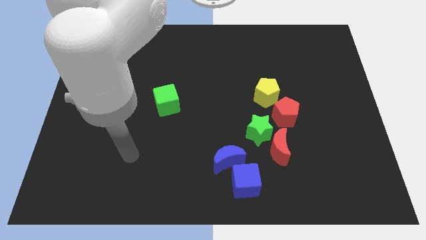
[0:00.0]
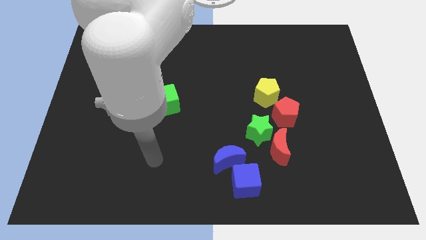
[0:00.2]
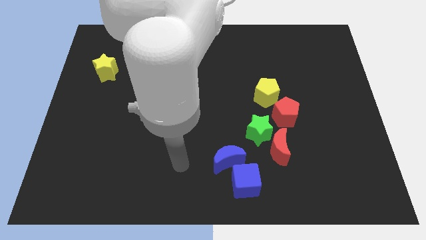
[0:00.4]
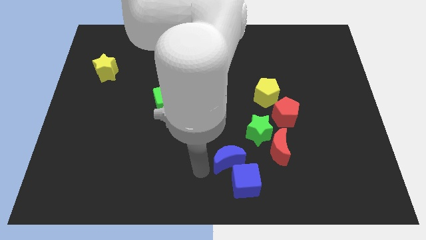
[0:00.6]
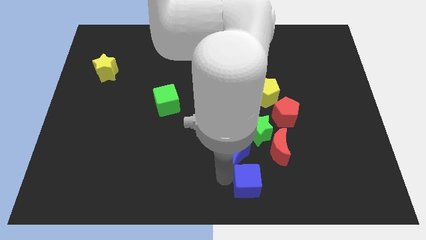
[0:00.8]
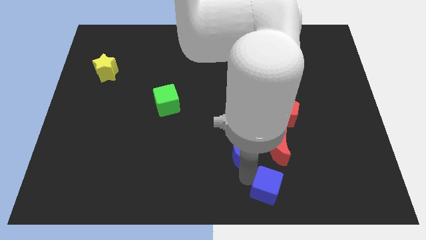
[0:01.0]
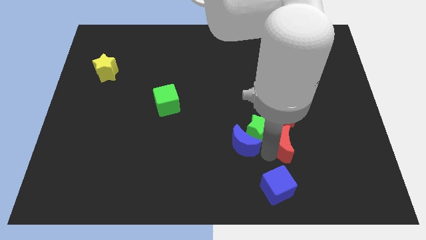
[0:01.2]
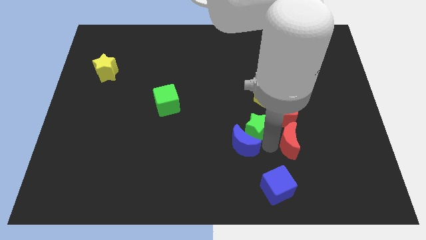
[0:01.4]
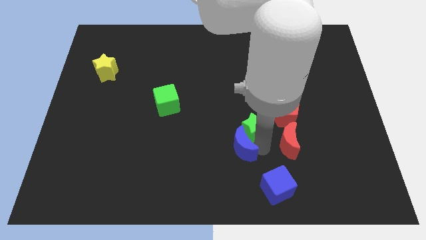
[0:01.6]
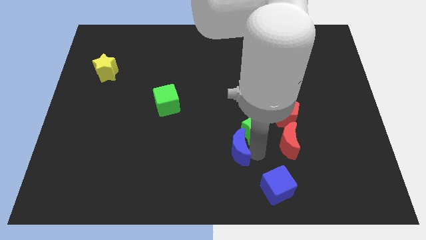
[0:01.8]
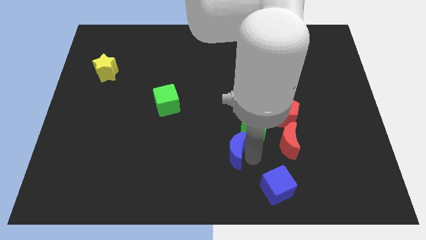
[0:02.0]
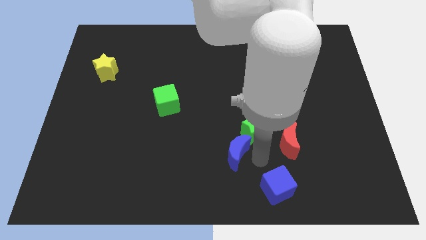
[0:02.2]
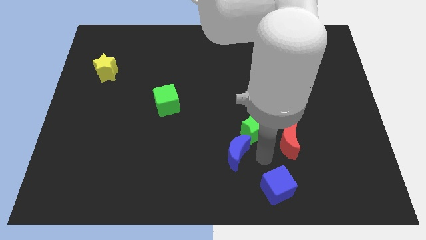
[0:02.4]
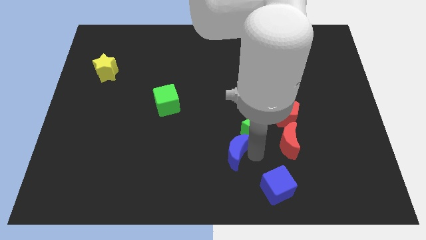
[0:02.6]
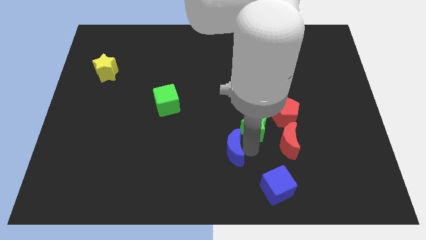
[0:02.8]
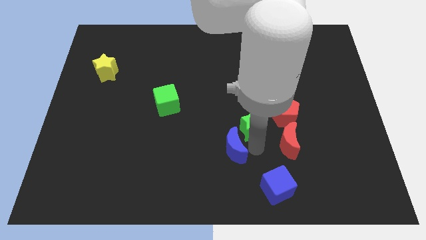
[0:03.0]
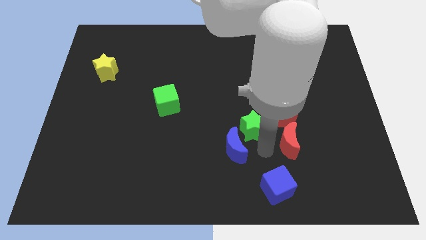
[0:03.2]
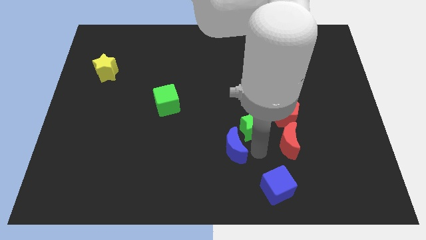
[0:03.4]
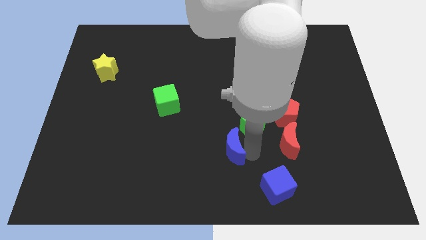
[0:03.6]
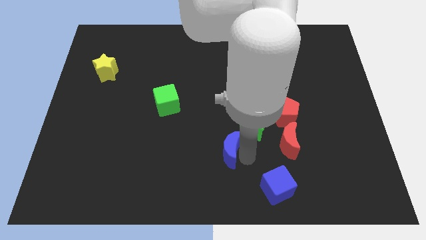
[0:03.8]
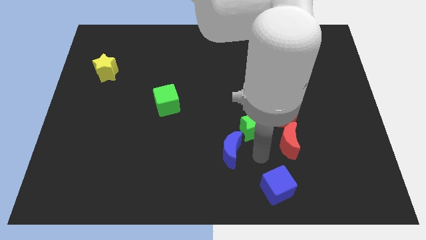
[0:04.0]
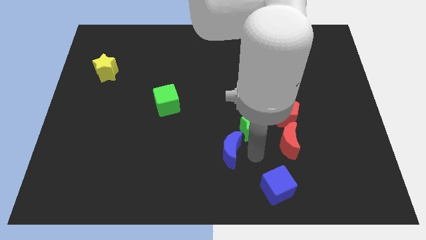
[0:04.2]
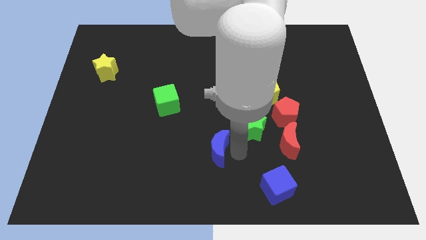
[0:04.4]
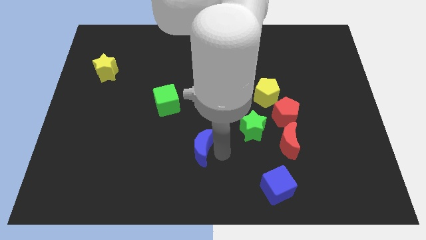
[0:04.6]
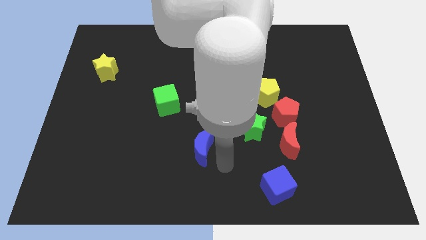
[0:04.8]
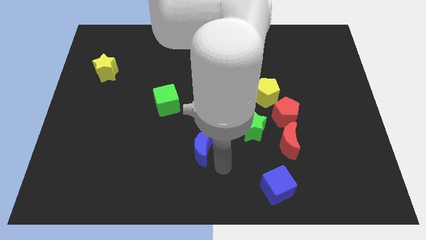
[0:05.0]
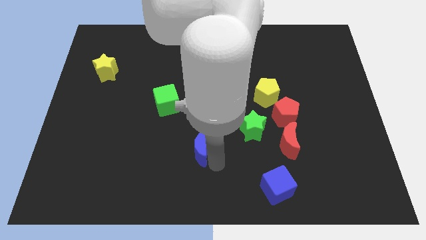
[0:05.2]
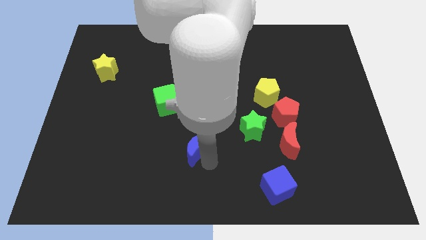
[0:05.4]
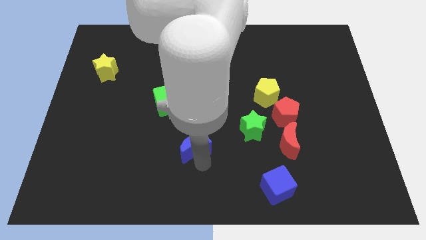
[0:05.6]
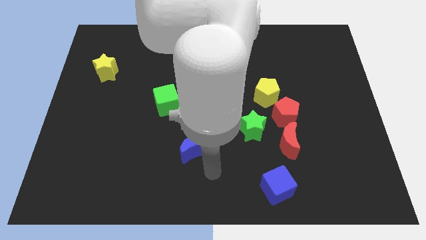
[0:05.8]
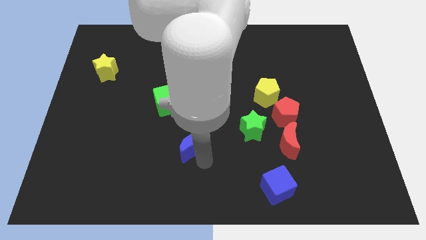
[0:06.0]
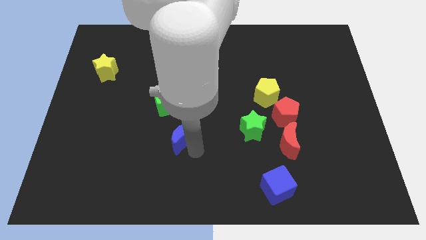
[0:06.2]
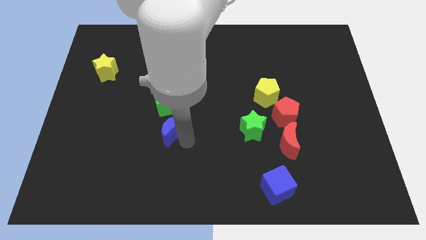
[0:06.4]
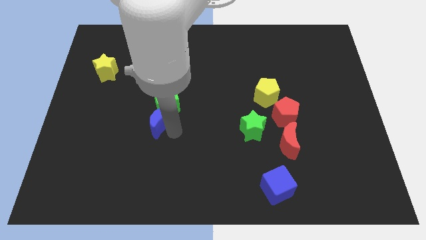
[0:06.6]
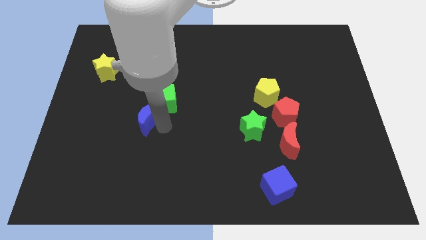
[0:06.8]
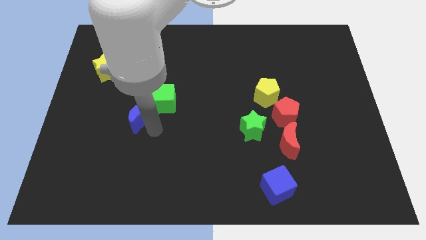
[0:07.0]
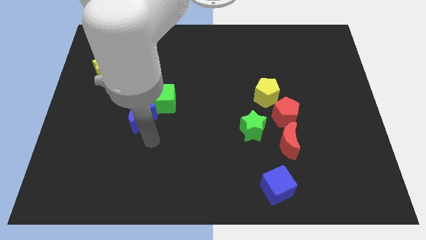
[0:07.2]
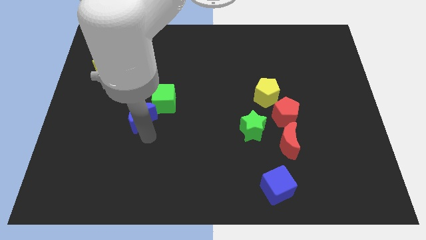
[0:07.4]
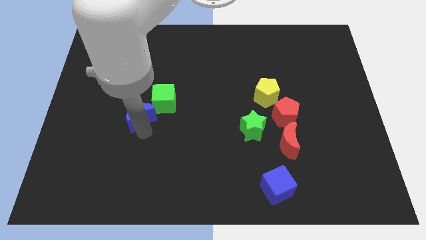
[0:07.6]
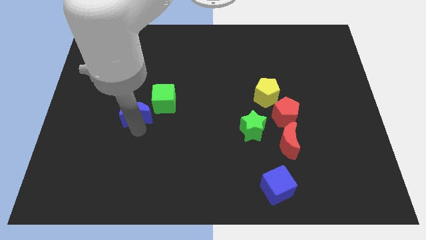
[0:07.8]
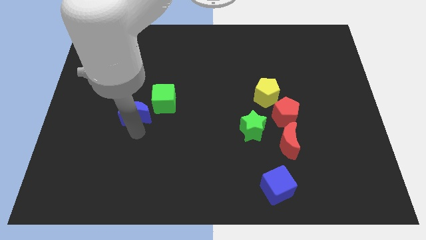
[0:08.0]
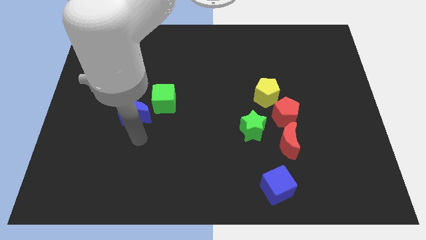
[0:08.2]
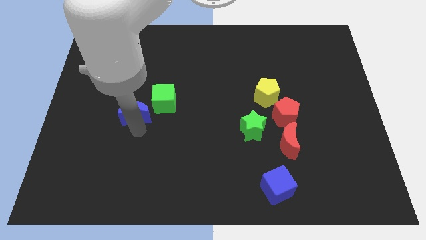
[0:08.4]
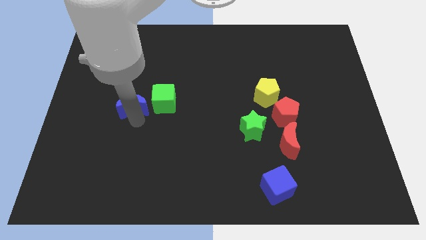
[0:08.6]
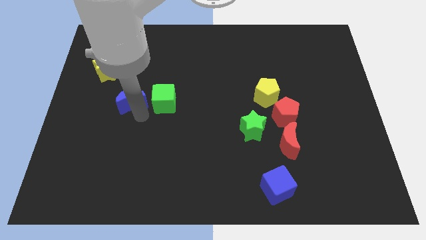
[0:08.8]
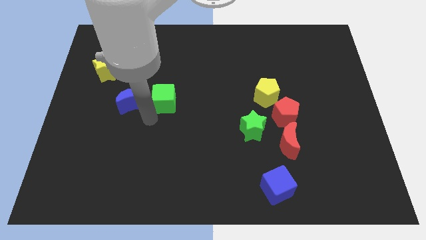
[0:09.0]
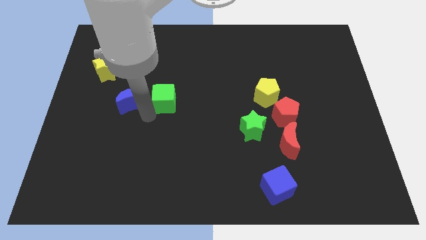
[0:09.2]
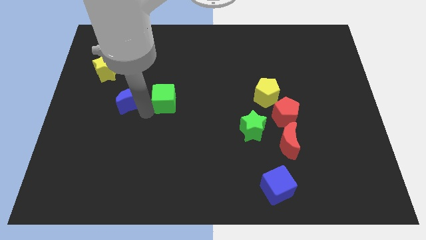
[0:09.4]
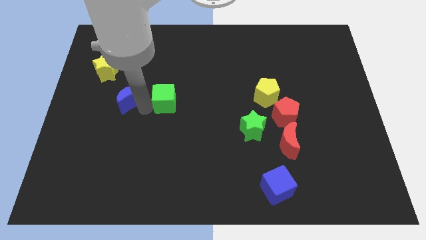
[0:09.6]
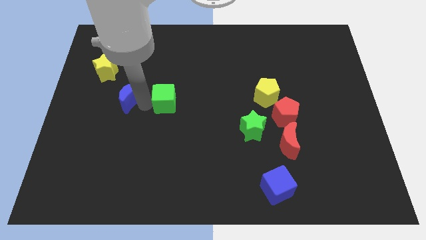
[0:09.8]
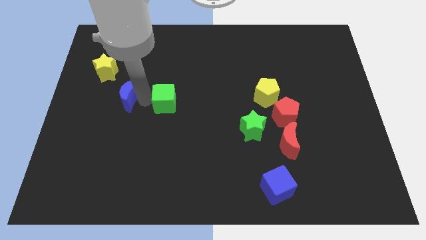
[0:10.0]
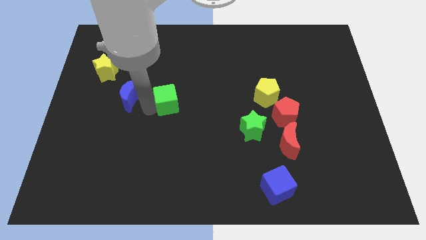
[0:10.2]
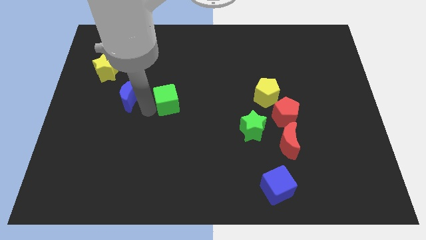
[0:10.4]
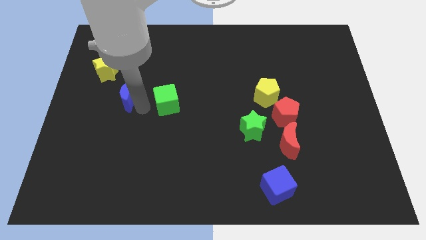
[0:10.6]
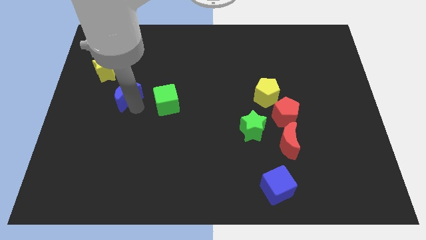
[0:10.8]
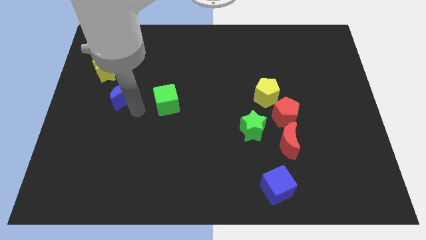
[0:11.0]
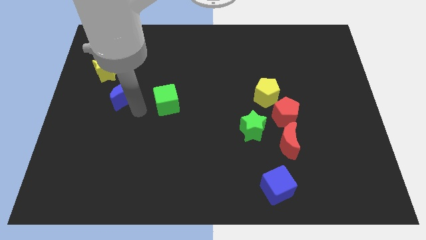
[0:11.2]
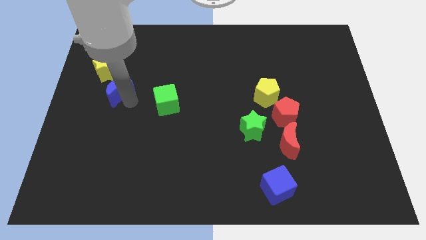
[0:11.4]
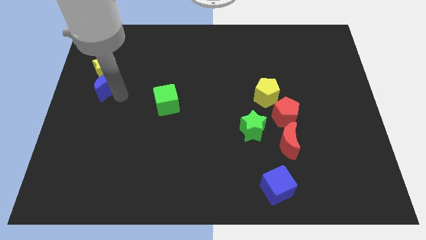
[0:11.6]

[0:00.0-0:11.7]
move the blue moon next to the yellow star

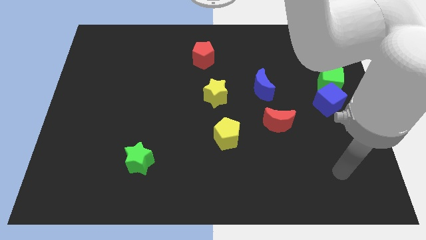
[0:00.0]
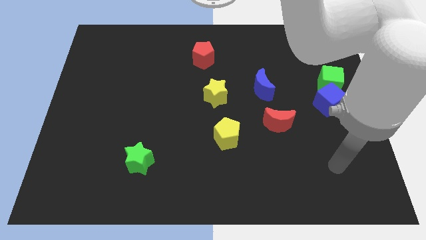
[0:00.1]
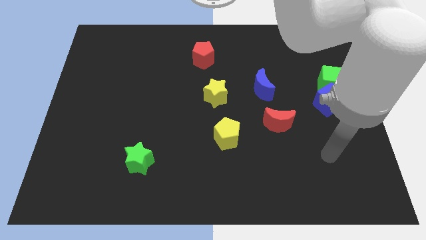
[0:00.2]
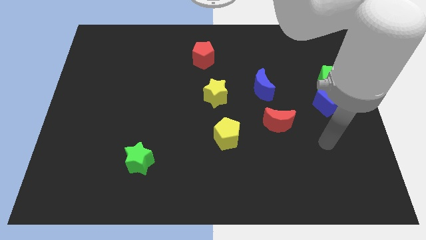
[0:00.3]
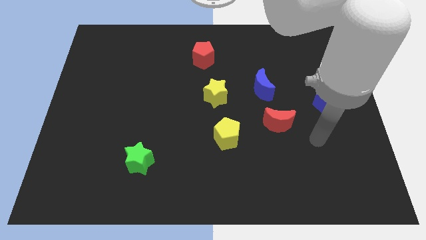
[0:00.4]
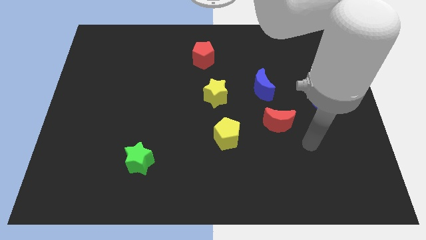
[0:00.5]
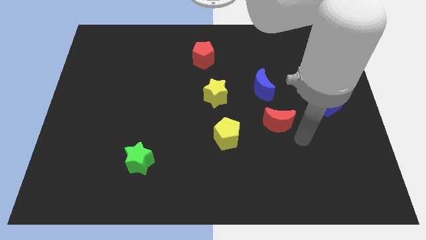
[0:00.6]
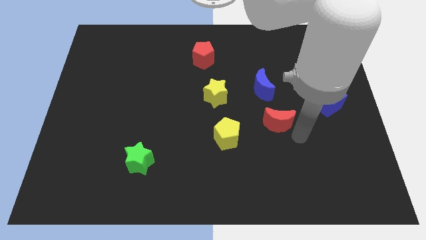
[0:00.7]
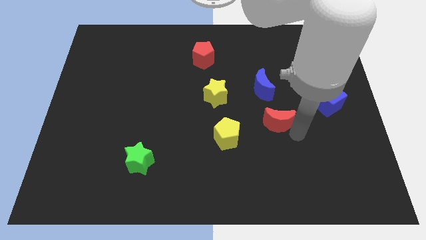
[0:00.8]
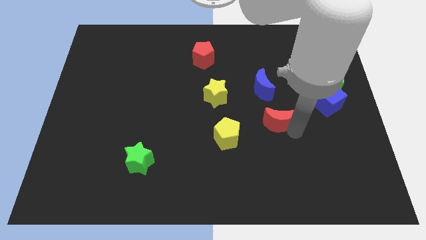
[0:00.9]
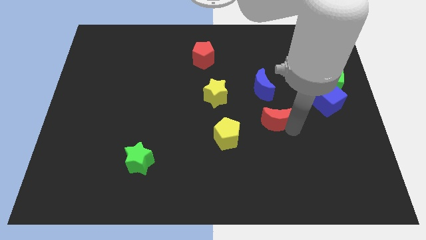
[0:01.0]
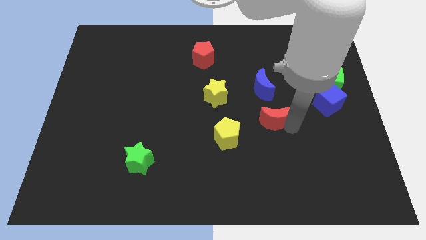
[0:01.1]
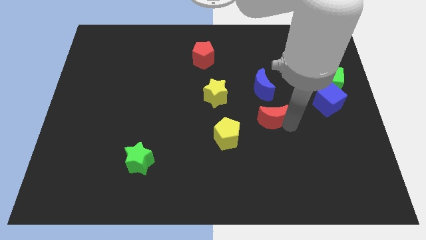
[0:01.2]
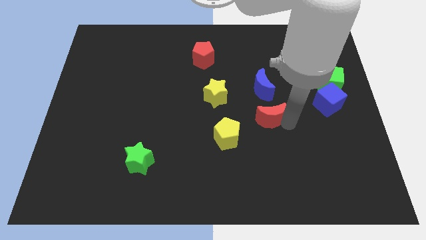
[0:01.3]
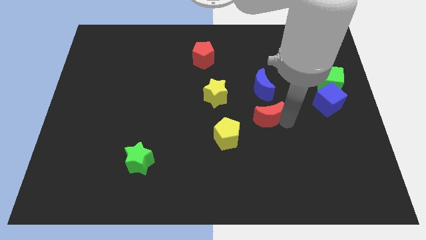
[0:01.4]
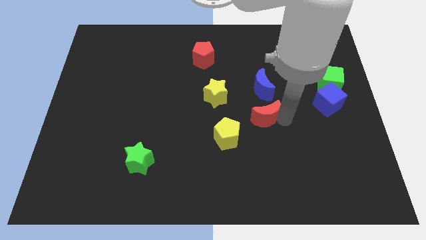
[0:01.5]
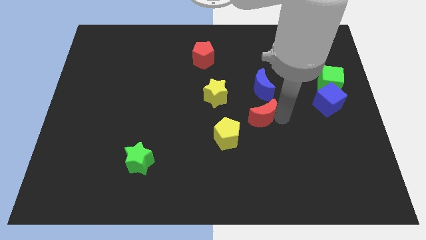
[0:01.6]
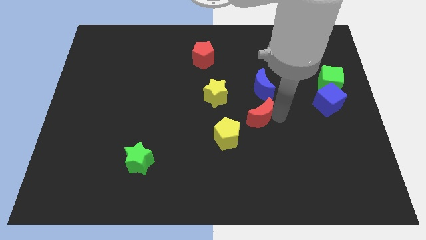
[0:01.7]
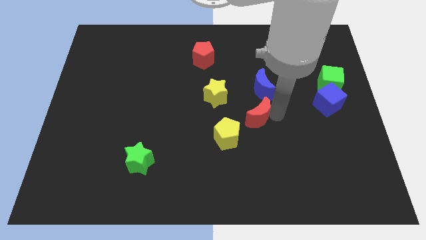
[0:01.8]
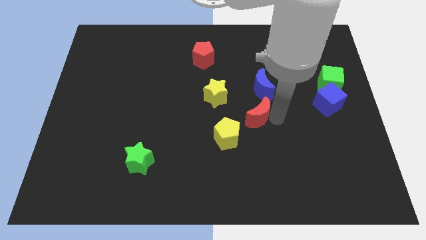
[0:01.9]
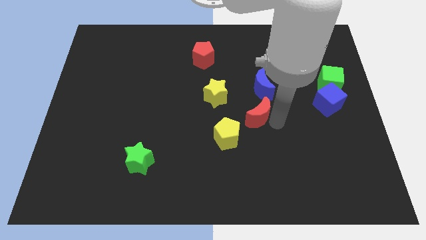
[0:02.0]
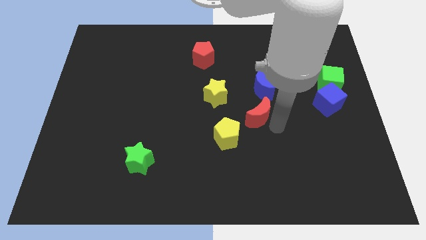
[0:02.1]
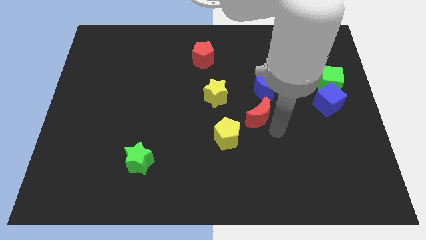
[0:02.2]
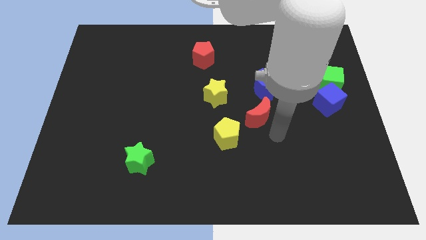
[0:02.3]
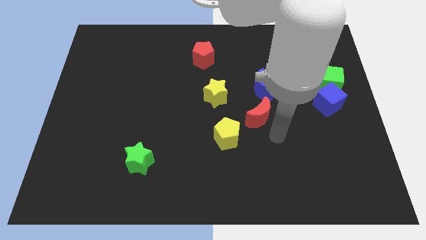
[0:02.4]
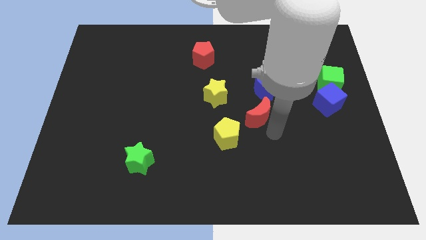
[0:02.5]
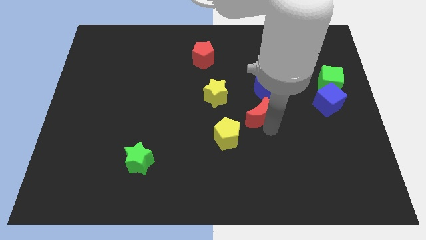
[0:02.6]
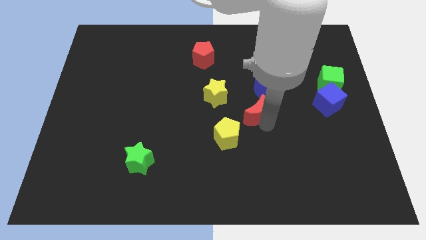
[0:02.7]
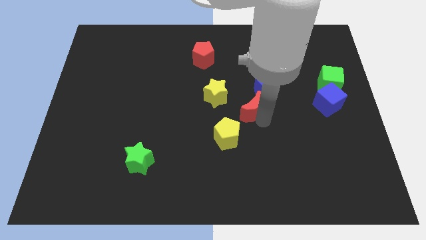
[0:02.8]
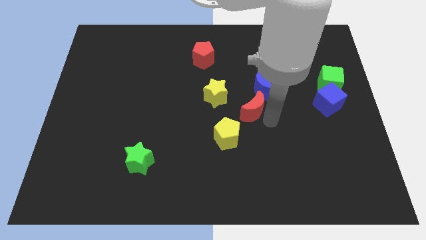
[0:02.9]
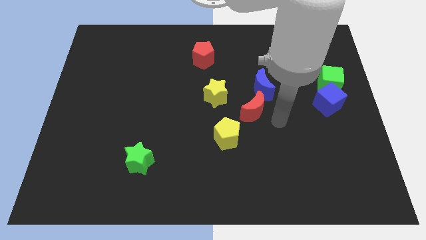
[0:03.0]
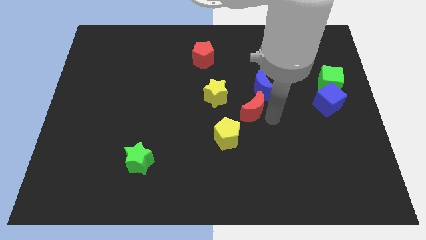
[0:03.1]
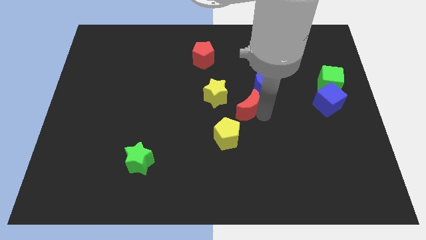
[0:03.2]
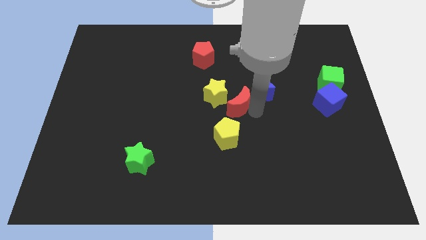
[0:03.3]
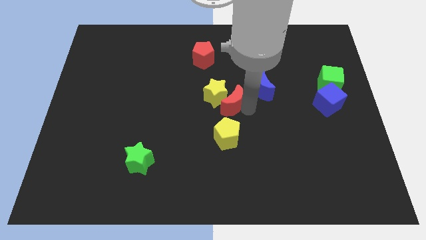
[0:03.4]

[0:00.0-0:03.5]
put the red moon next to the yellow star
